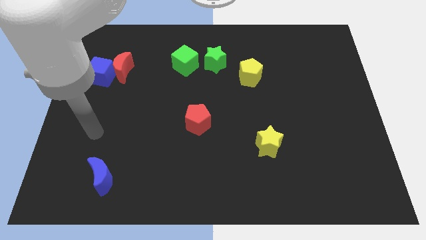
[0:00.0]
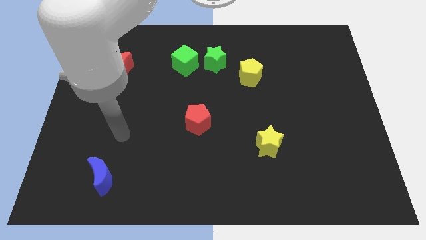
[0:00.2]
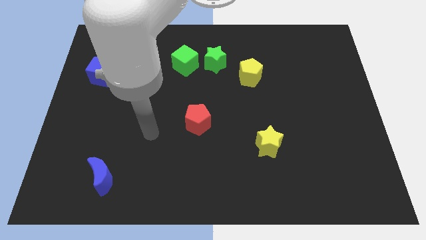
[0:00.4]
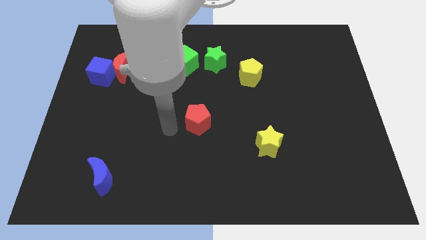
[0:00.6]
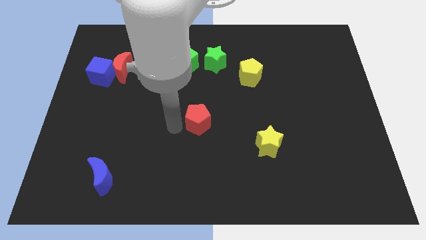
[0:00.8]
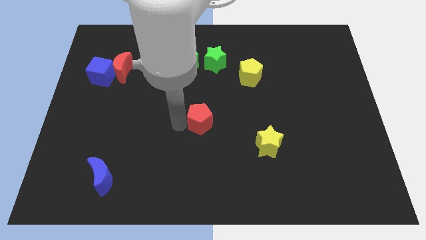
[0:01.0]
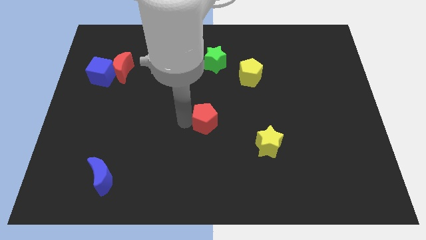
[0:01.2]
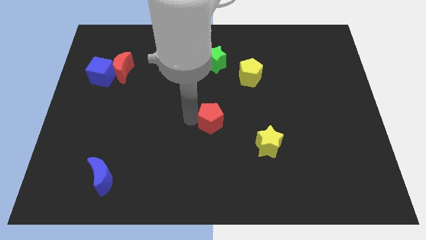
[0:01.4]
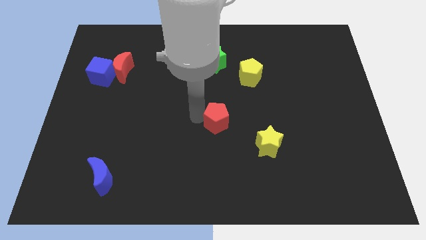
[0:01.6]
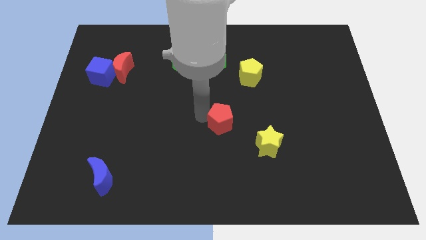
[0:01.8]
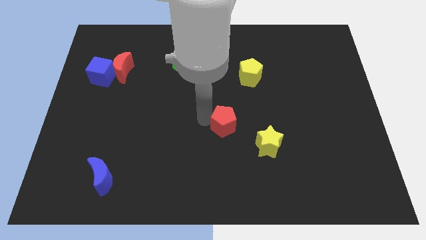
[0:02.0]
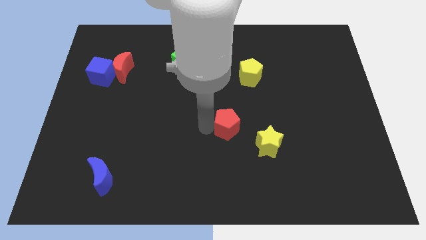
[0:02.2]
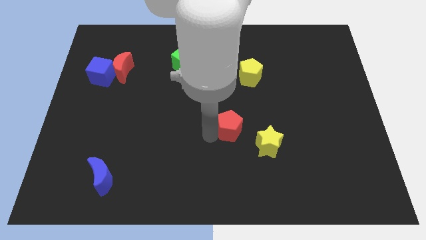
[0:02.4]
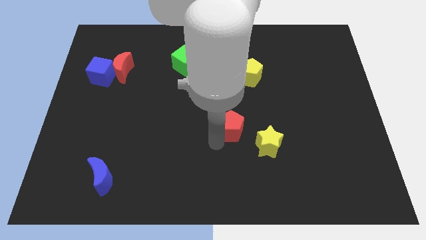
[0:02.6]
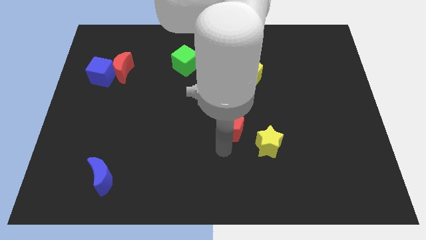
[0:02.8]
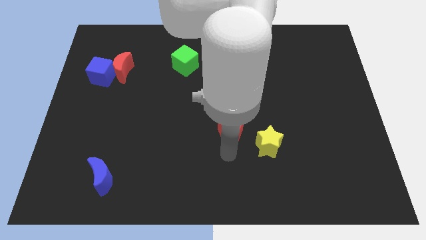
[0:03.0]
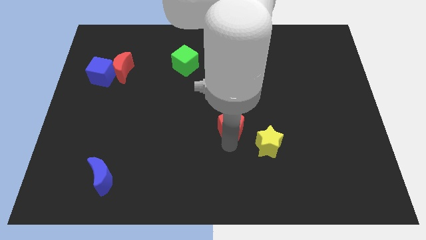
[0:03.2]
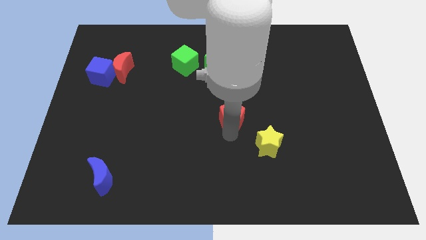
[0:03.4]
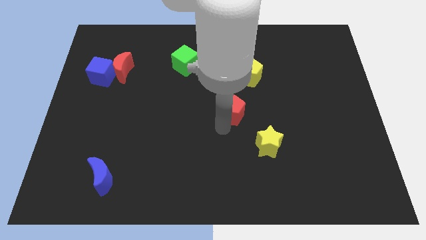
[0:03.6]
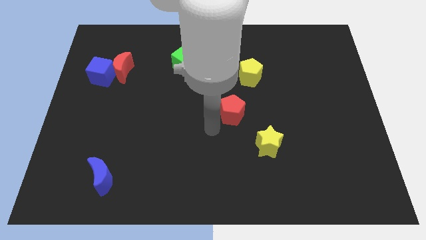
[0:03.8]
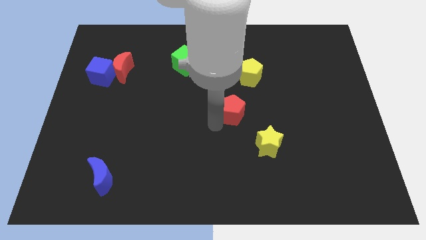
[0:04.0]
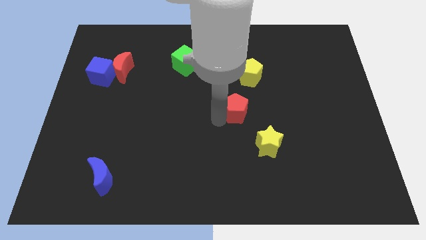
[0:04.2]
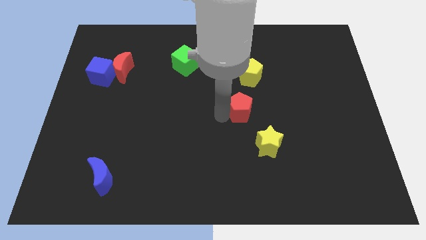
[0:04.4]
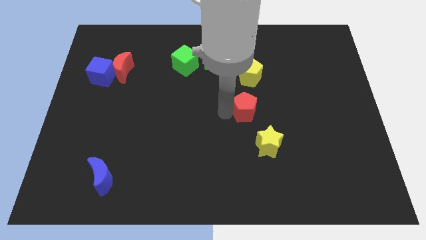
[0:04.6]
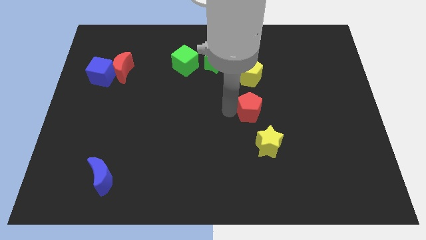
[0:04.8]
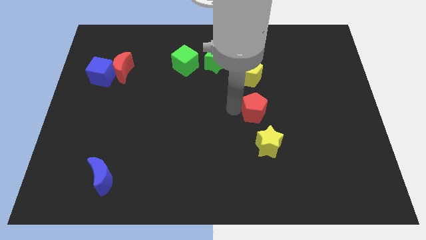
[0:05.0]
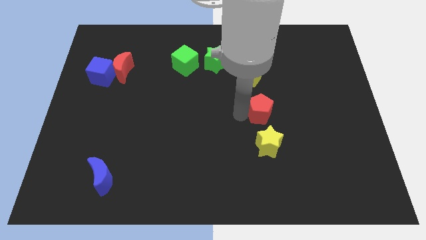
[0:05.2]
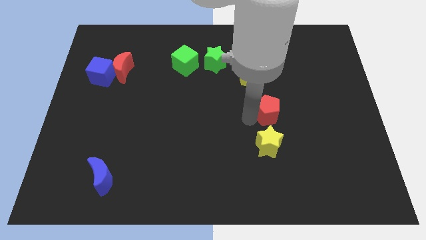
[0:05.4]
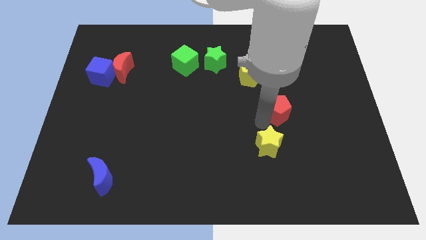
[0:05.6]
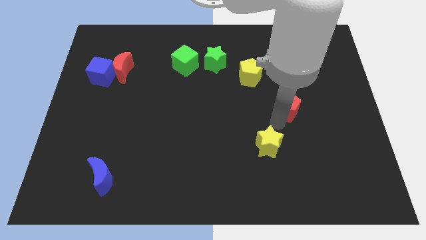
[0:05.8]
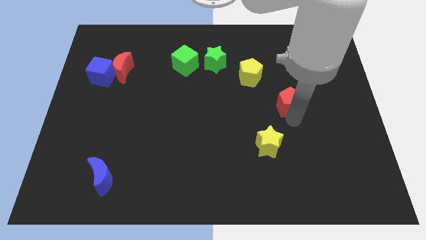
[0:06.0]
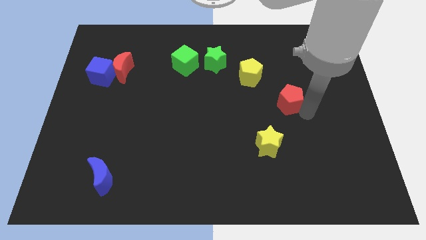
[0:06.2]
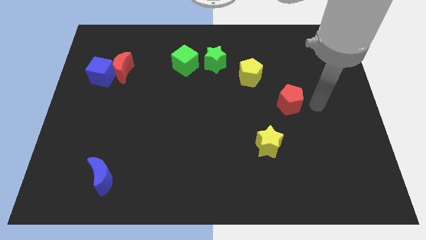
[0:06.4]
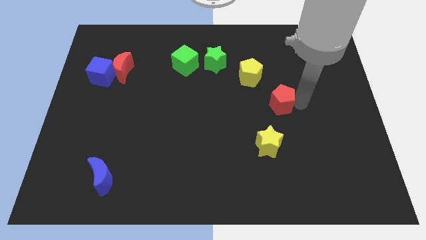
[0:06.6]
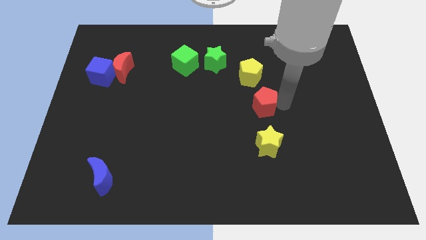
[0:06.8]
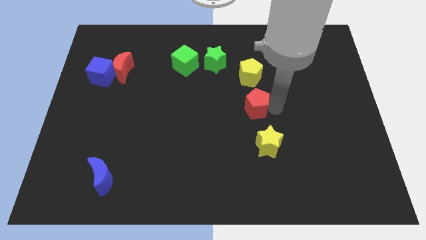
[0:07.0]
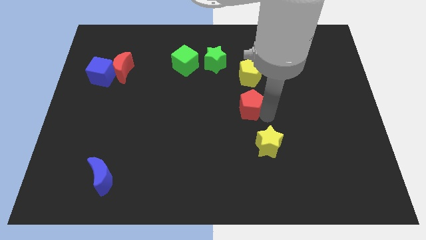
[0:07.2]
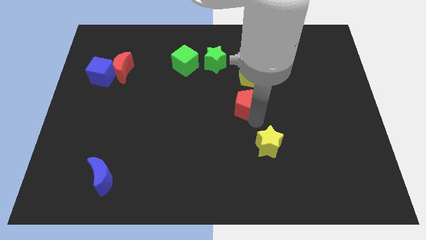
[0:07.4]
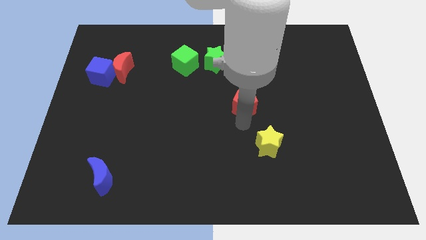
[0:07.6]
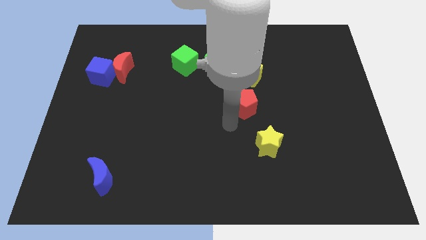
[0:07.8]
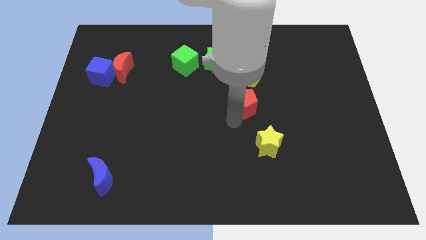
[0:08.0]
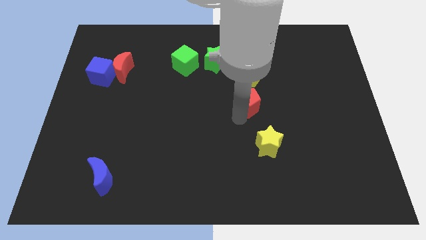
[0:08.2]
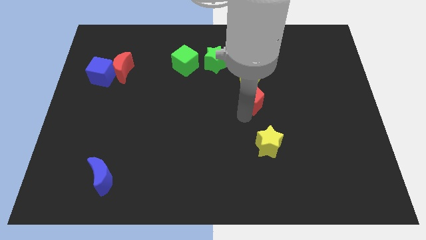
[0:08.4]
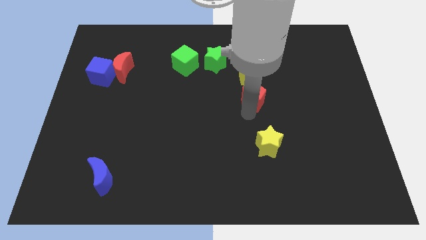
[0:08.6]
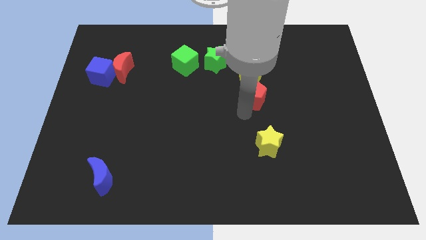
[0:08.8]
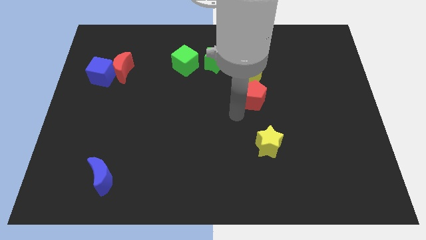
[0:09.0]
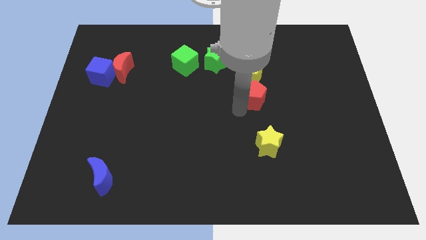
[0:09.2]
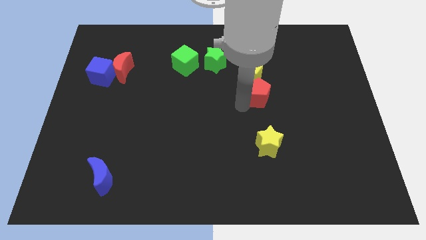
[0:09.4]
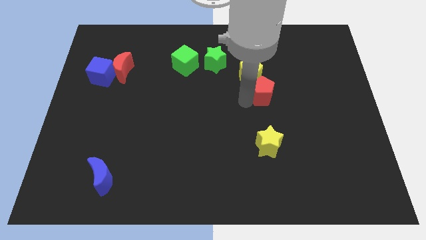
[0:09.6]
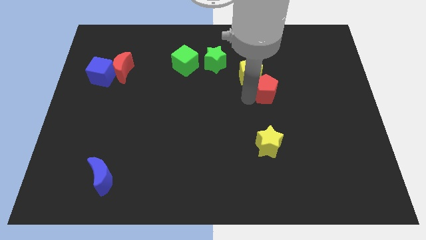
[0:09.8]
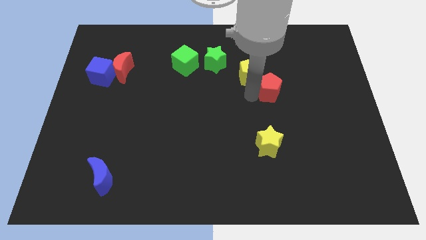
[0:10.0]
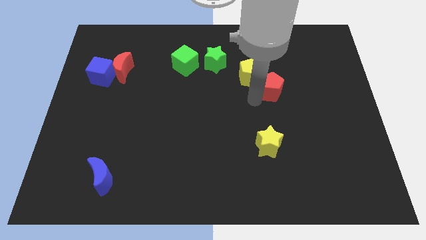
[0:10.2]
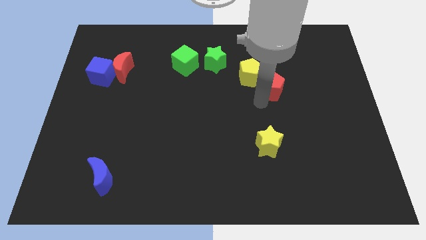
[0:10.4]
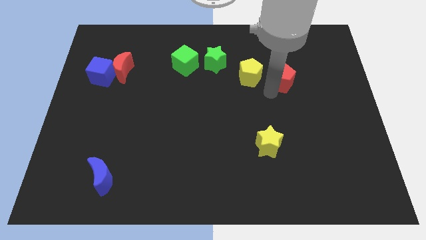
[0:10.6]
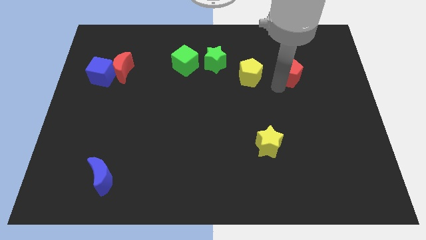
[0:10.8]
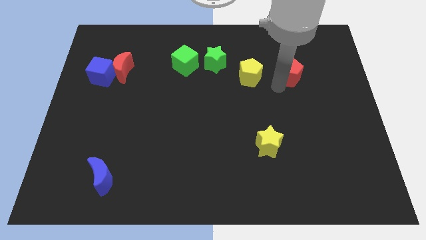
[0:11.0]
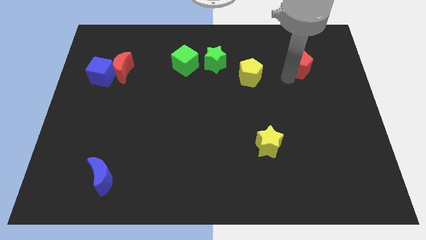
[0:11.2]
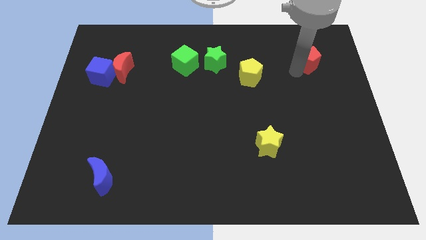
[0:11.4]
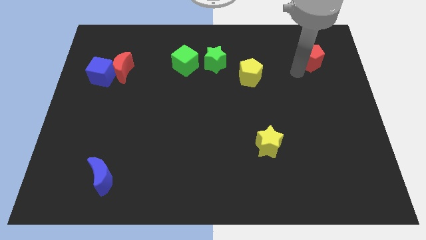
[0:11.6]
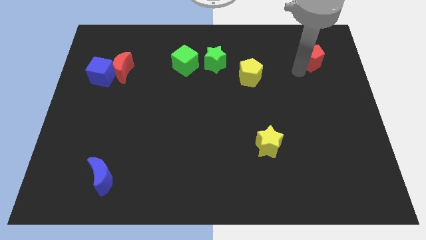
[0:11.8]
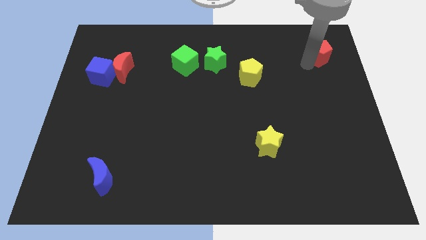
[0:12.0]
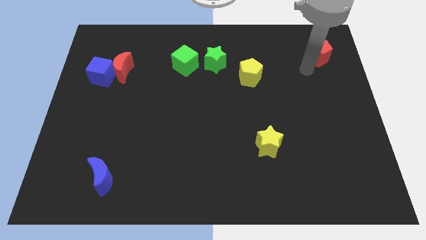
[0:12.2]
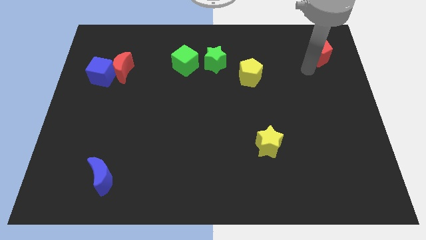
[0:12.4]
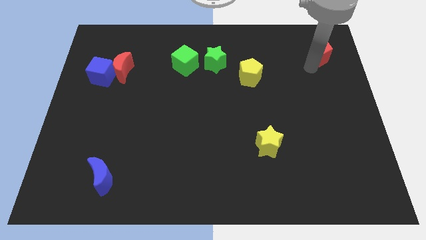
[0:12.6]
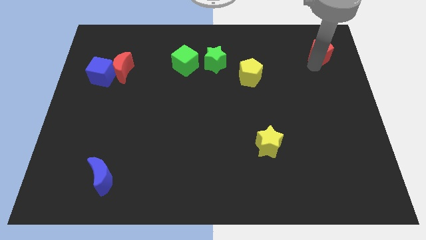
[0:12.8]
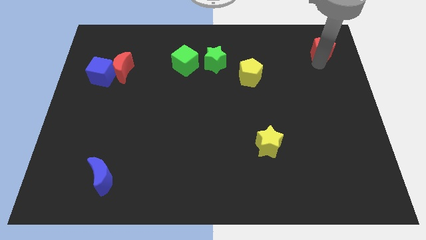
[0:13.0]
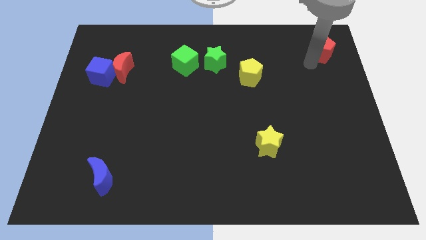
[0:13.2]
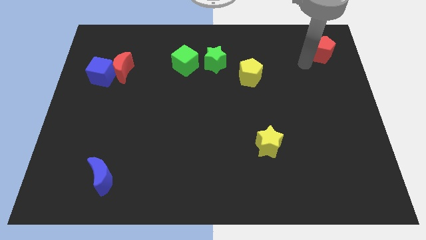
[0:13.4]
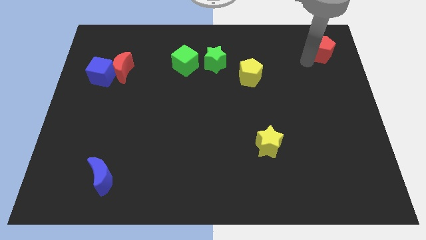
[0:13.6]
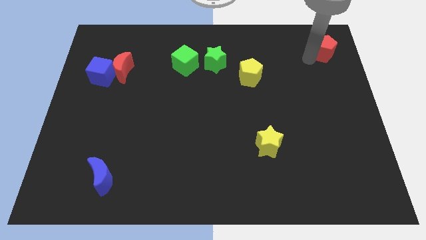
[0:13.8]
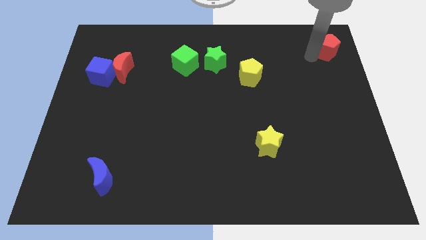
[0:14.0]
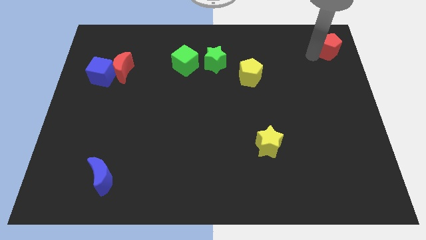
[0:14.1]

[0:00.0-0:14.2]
push the red pentagon to the top right corner
